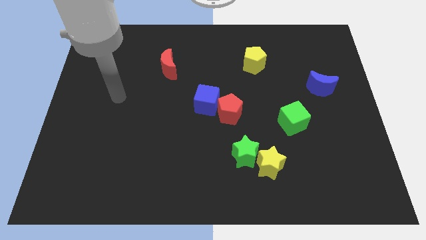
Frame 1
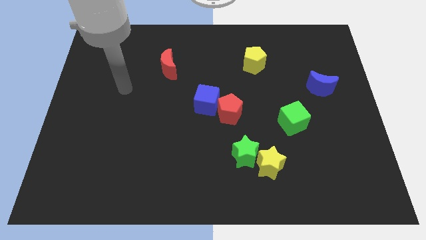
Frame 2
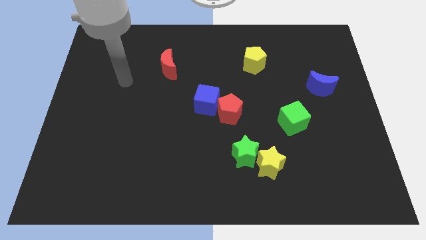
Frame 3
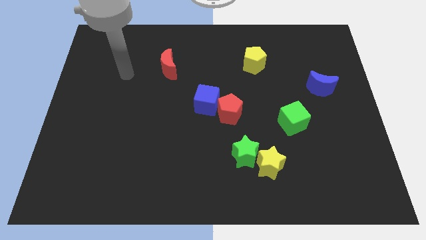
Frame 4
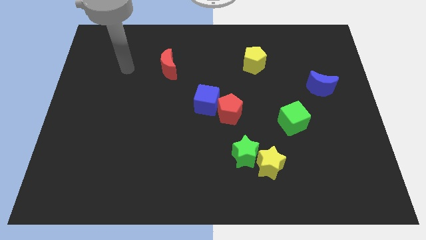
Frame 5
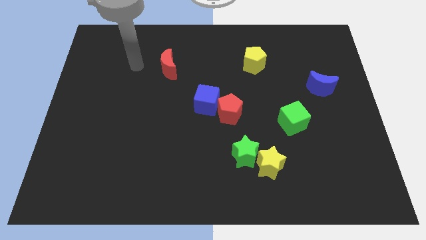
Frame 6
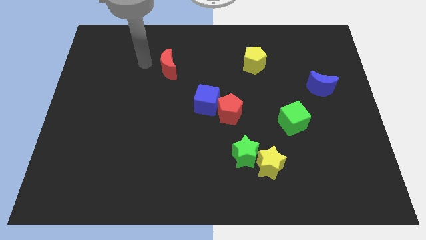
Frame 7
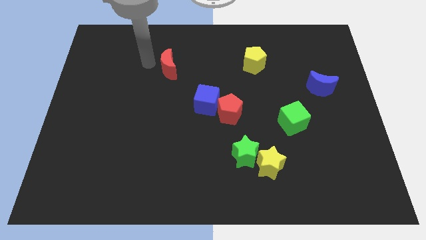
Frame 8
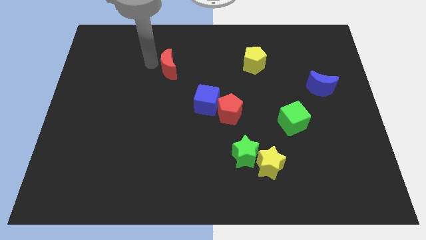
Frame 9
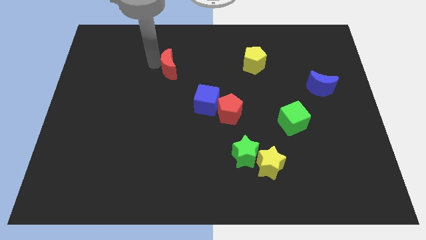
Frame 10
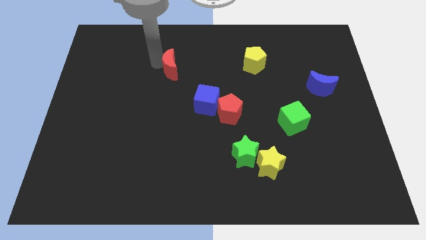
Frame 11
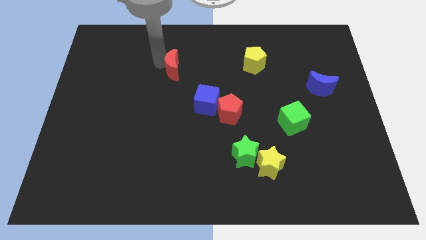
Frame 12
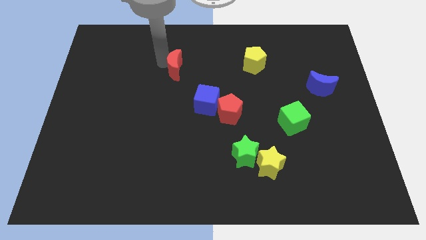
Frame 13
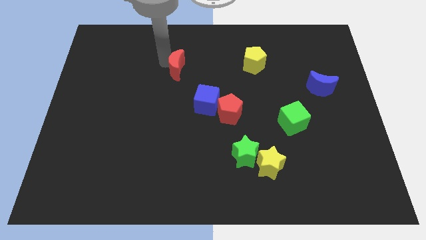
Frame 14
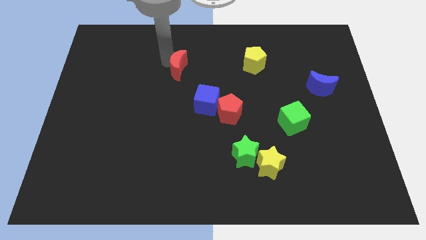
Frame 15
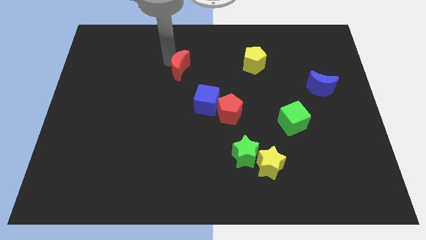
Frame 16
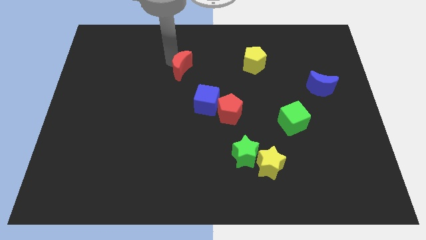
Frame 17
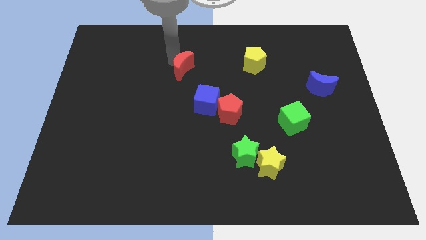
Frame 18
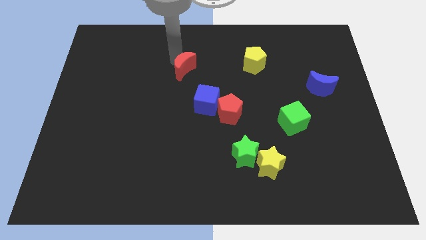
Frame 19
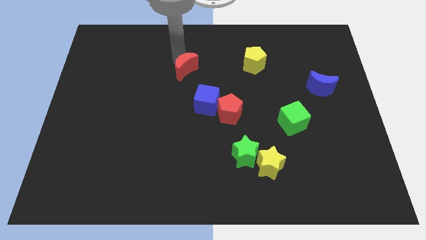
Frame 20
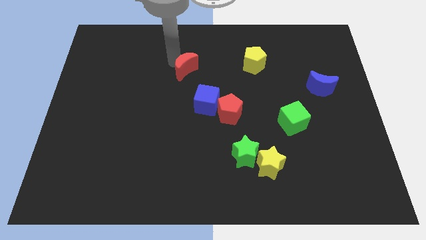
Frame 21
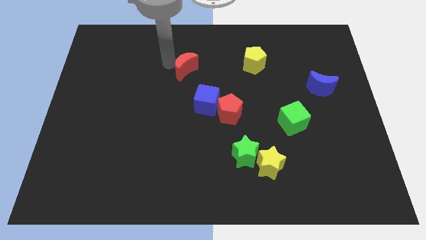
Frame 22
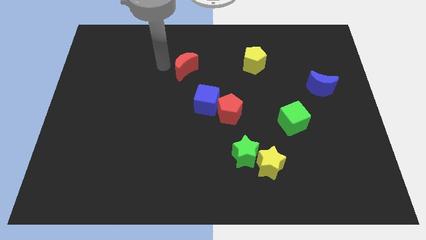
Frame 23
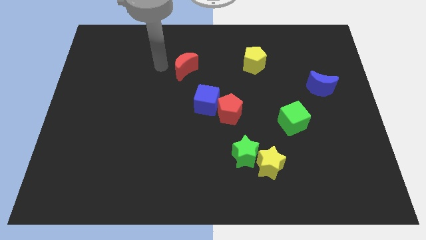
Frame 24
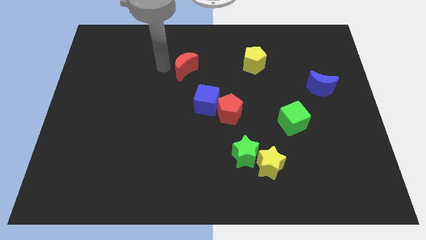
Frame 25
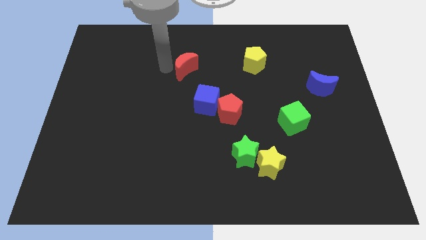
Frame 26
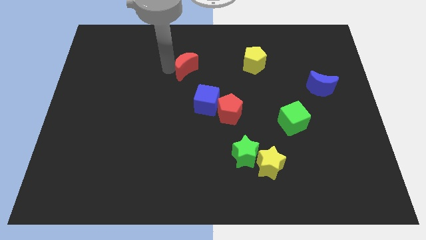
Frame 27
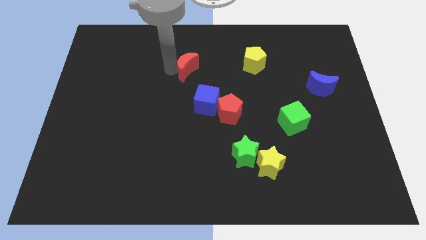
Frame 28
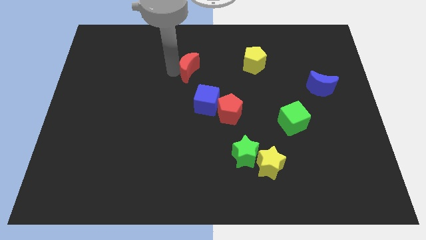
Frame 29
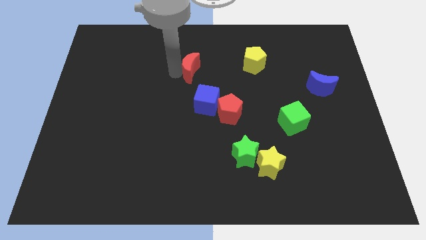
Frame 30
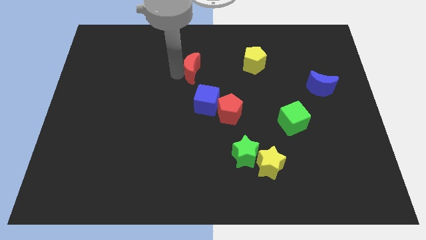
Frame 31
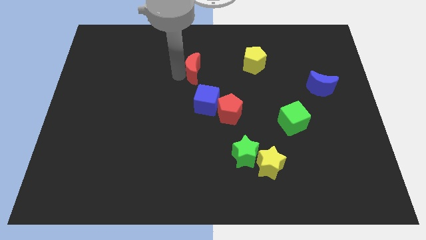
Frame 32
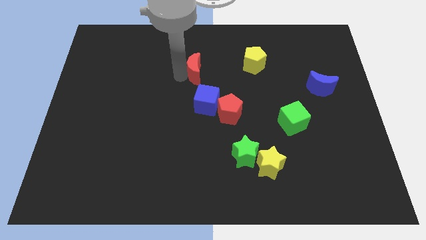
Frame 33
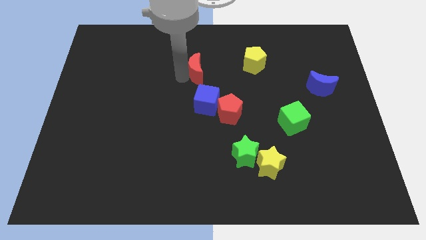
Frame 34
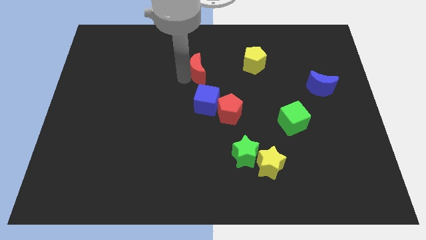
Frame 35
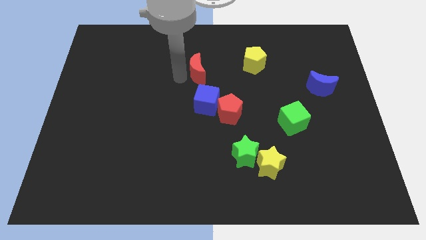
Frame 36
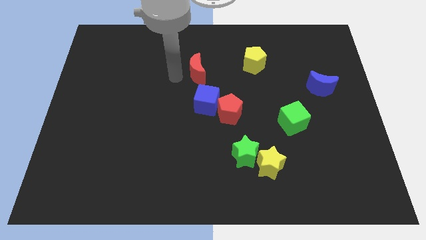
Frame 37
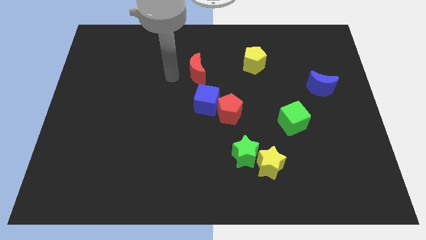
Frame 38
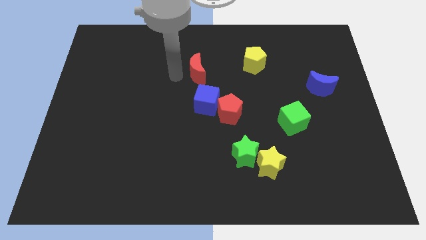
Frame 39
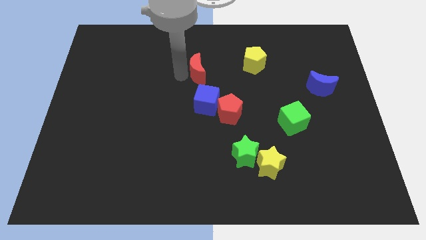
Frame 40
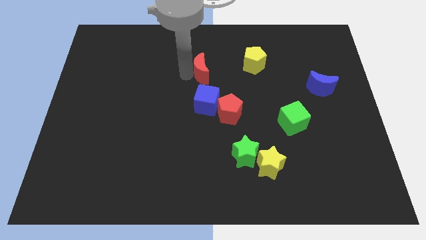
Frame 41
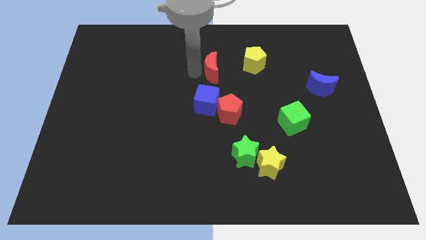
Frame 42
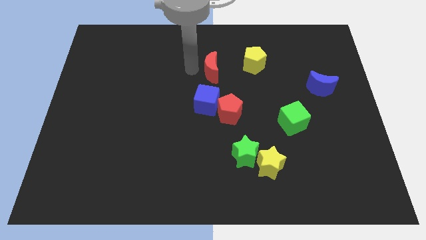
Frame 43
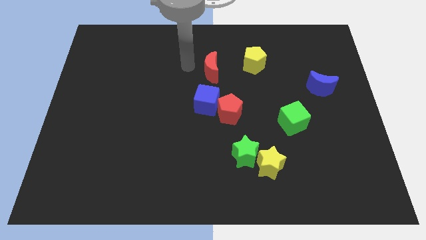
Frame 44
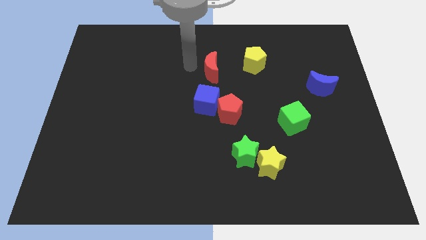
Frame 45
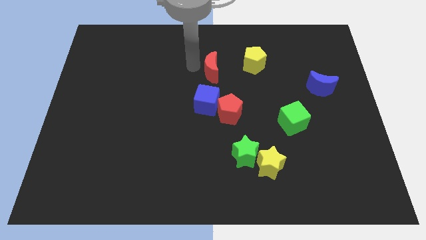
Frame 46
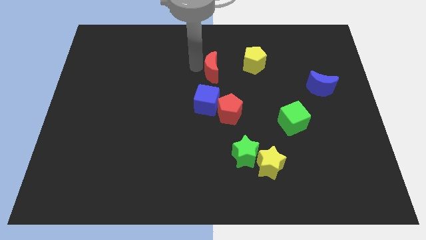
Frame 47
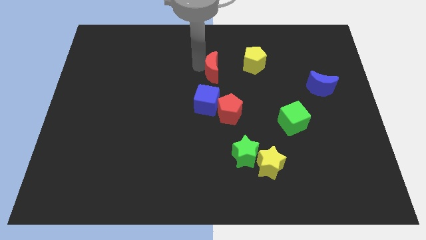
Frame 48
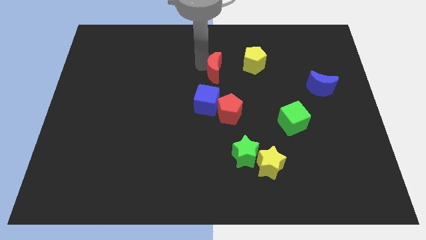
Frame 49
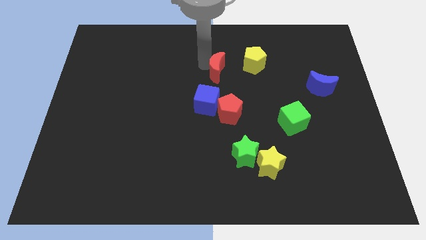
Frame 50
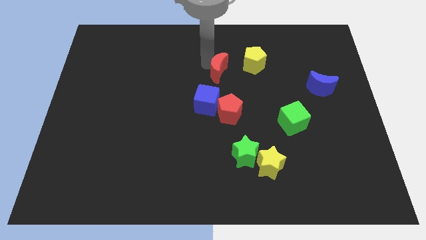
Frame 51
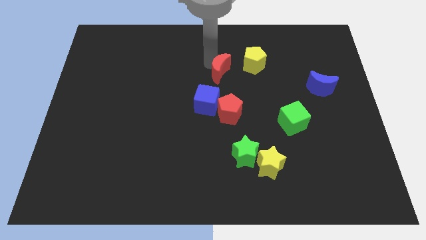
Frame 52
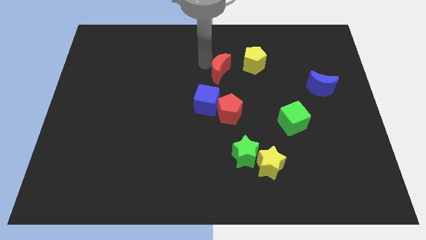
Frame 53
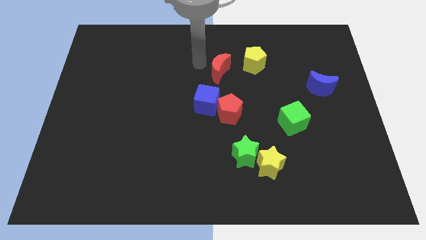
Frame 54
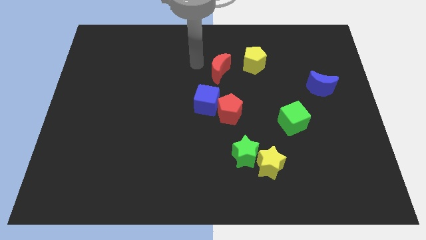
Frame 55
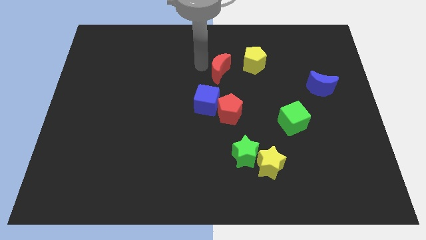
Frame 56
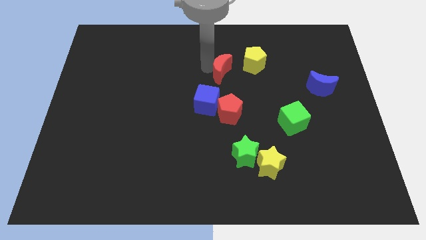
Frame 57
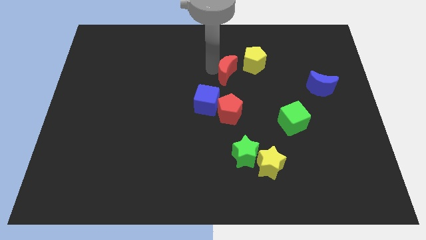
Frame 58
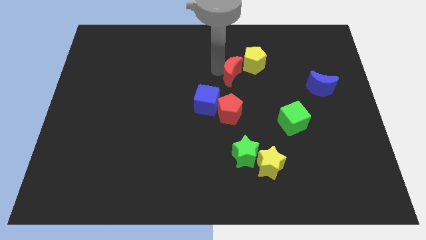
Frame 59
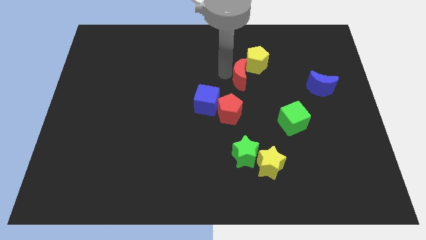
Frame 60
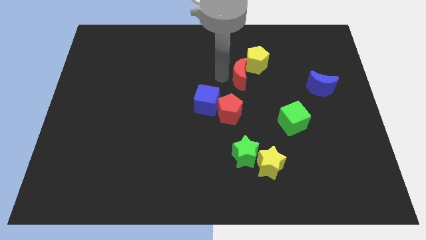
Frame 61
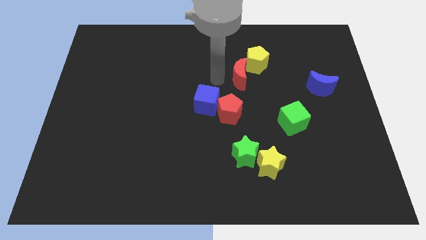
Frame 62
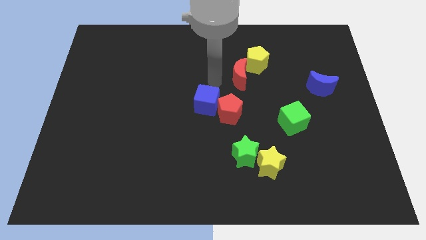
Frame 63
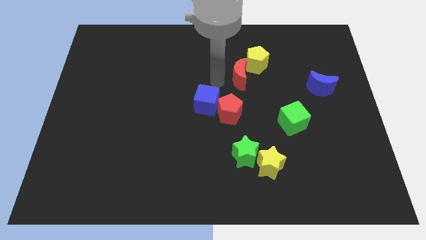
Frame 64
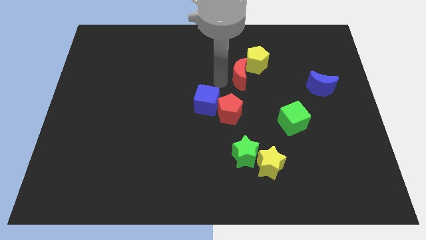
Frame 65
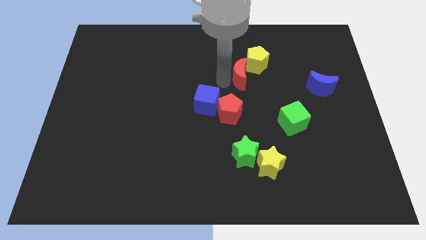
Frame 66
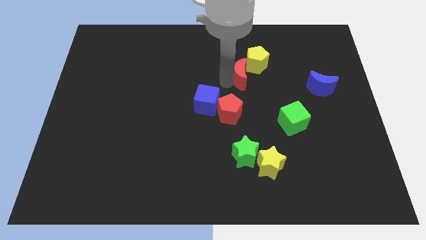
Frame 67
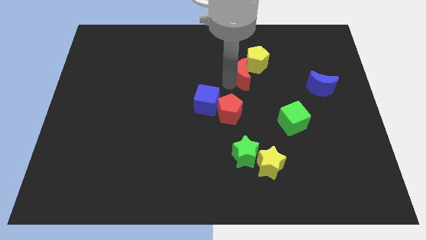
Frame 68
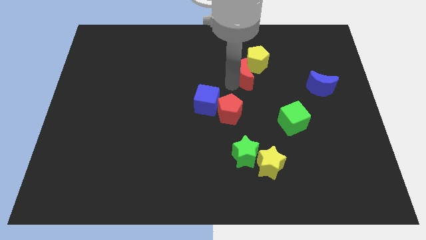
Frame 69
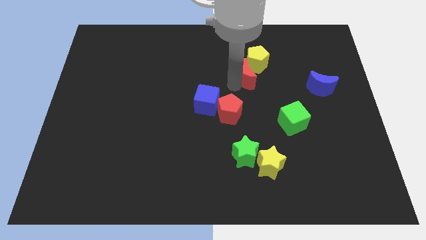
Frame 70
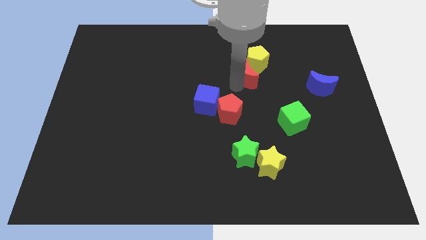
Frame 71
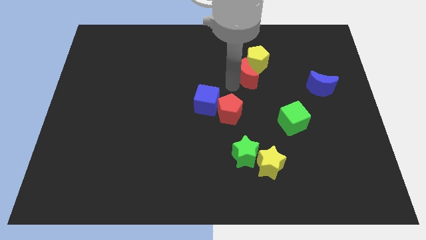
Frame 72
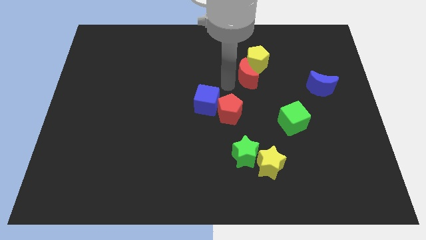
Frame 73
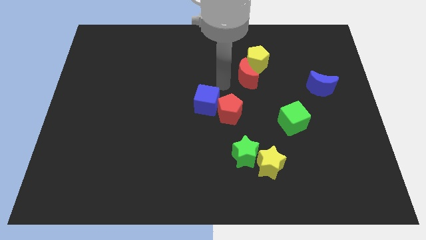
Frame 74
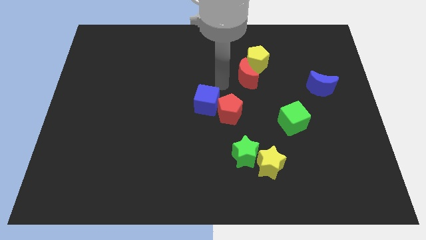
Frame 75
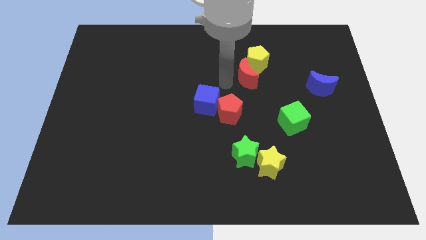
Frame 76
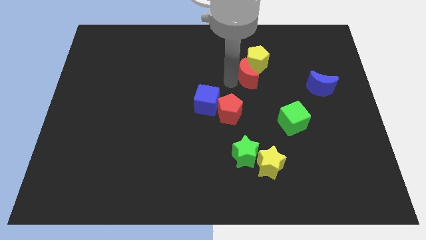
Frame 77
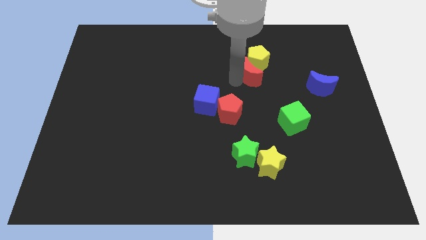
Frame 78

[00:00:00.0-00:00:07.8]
move the red moon to the right

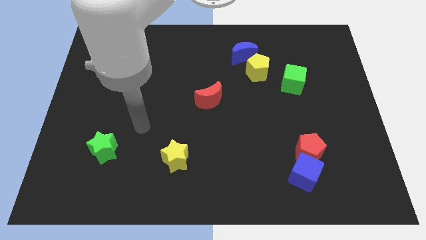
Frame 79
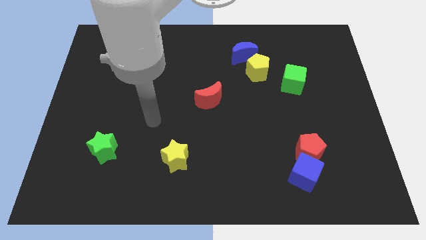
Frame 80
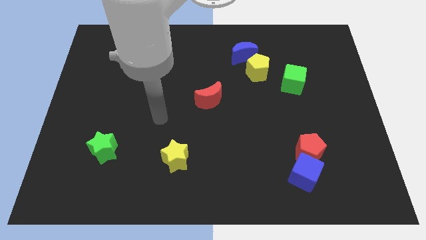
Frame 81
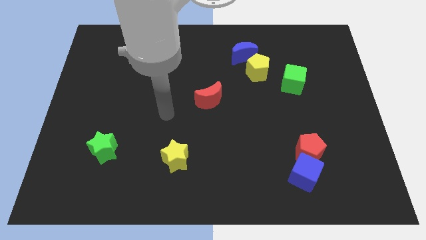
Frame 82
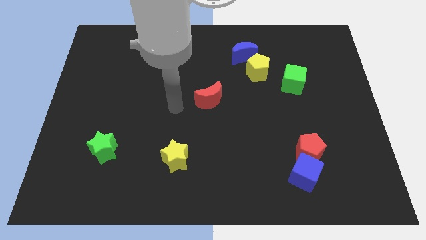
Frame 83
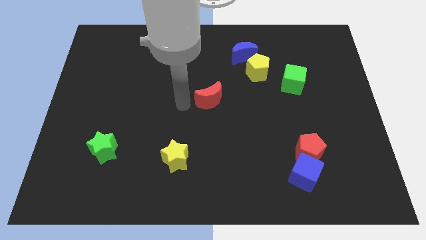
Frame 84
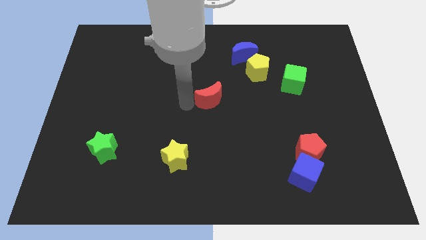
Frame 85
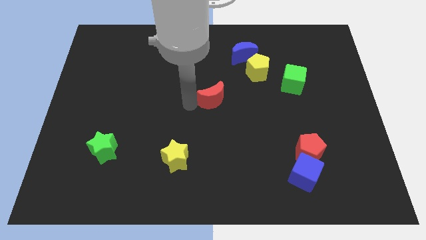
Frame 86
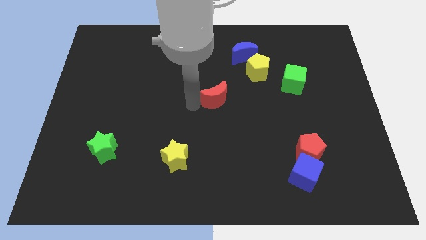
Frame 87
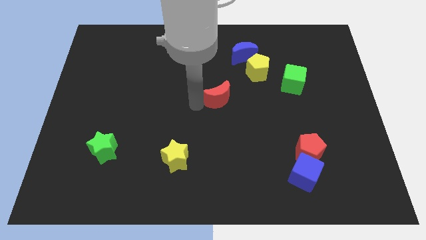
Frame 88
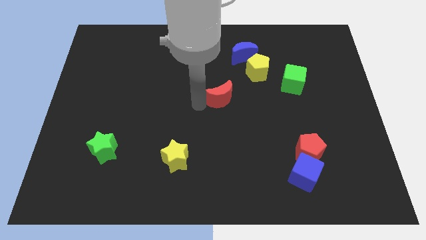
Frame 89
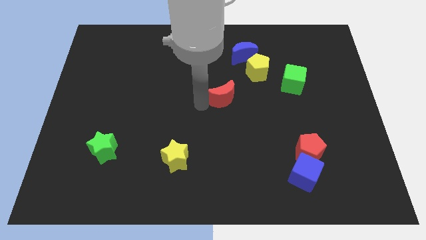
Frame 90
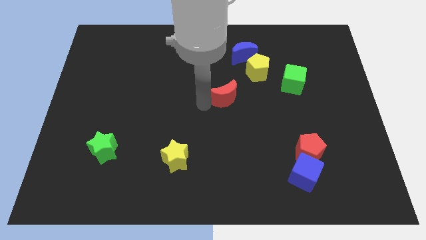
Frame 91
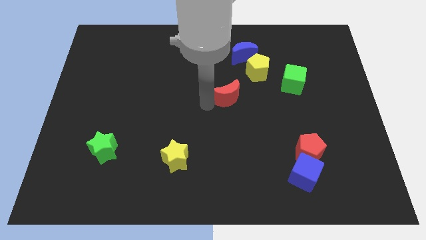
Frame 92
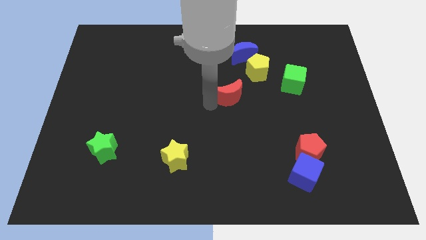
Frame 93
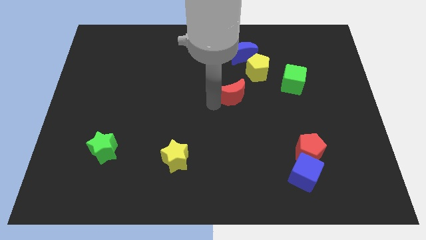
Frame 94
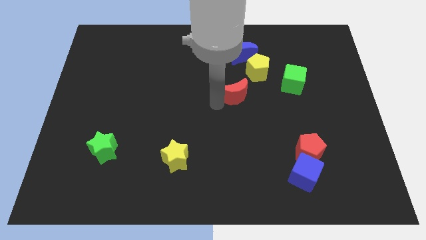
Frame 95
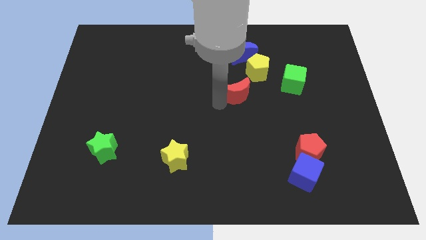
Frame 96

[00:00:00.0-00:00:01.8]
slightly move the red moon right
